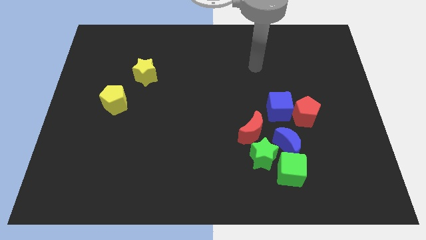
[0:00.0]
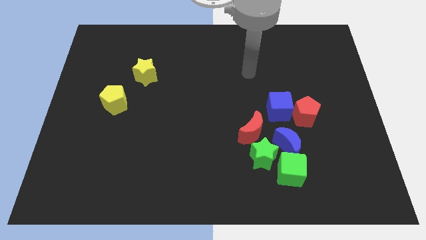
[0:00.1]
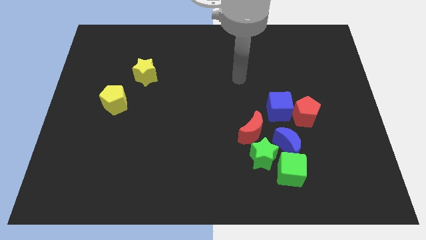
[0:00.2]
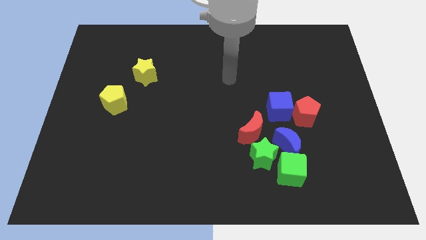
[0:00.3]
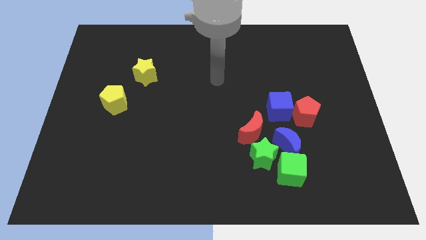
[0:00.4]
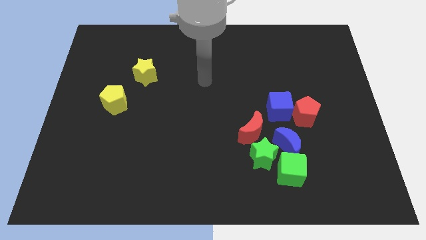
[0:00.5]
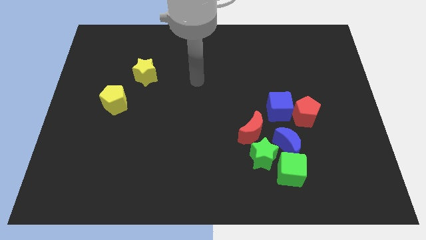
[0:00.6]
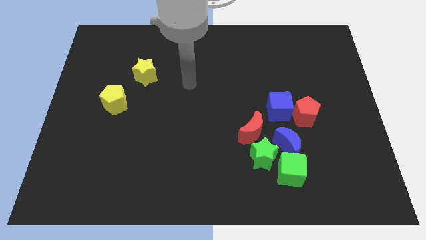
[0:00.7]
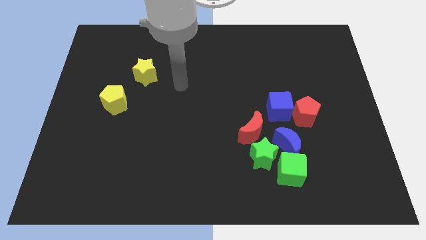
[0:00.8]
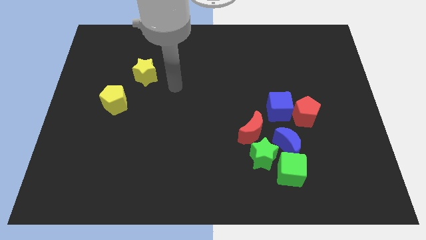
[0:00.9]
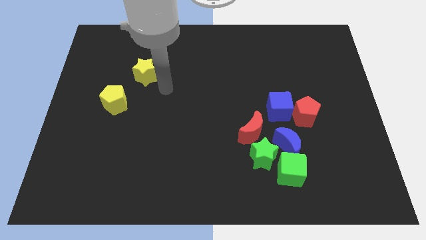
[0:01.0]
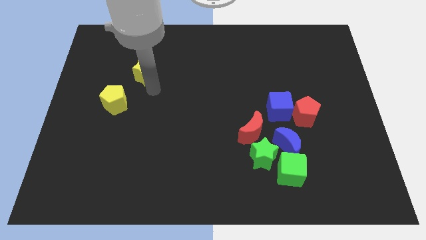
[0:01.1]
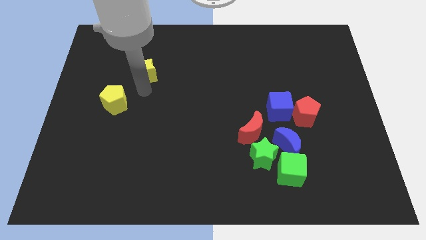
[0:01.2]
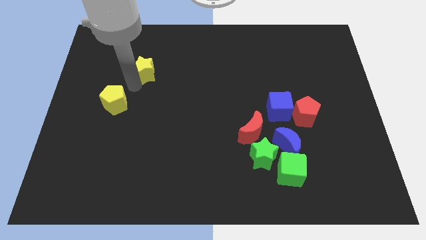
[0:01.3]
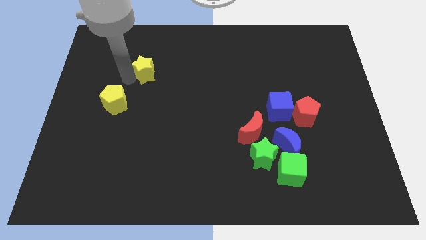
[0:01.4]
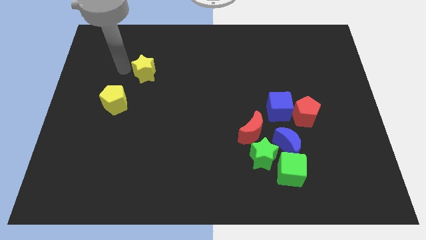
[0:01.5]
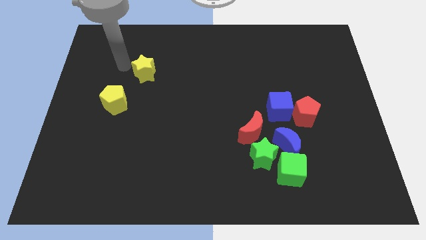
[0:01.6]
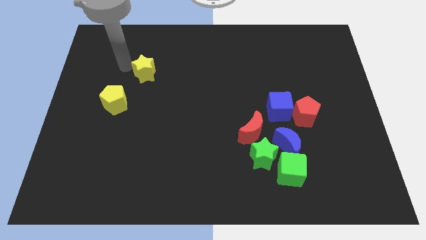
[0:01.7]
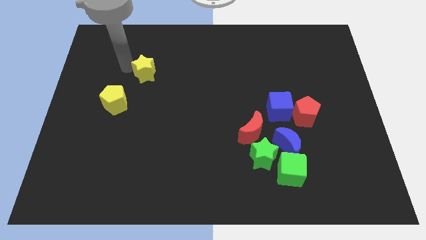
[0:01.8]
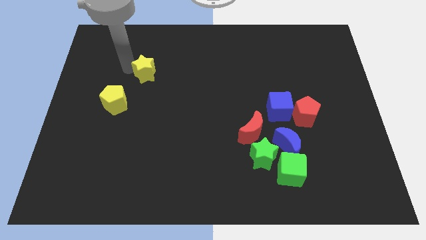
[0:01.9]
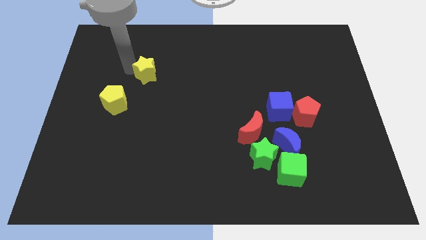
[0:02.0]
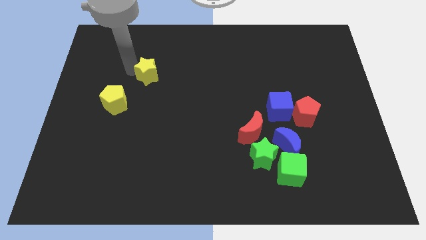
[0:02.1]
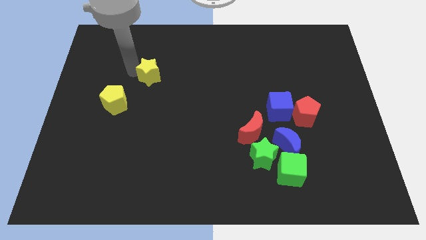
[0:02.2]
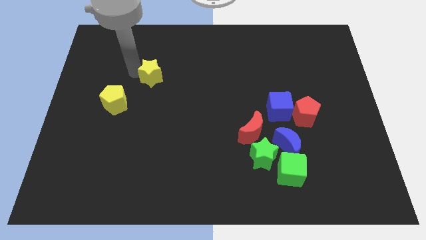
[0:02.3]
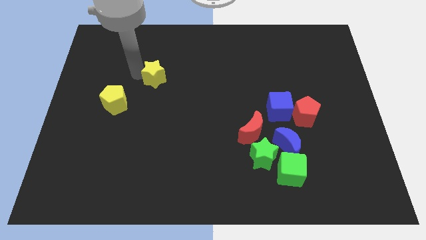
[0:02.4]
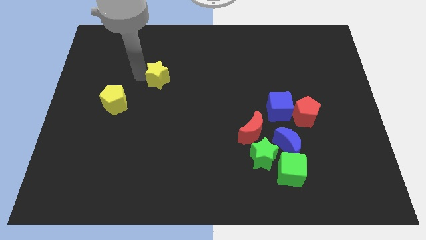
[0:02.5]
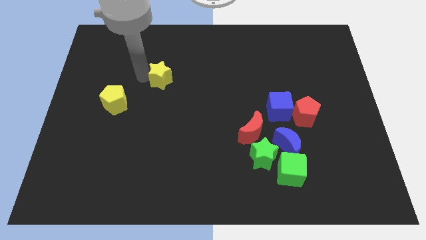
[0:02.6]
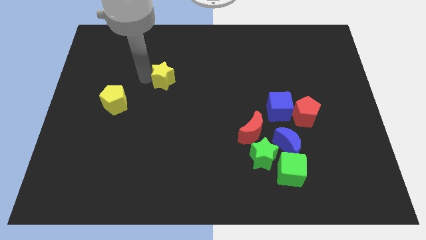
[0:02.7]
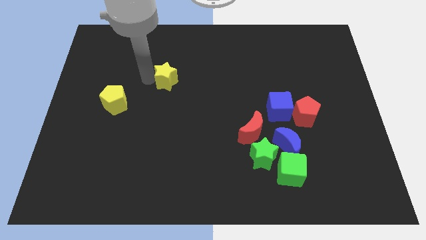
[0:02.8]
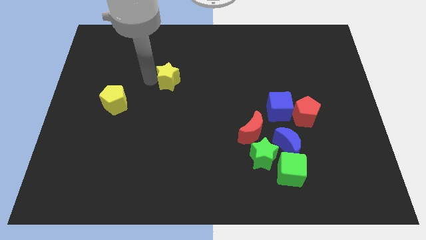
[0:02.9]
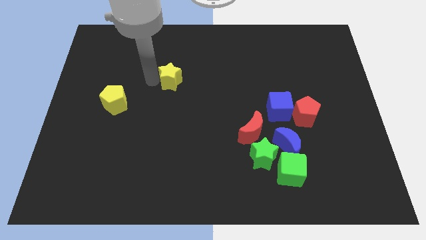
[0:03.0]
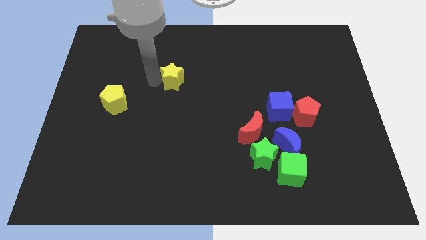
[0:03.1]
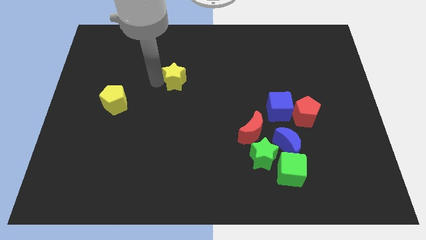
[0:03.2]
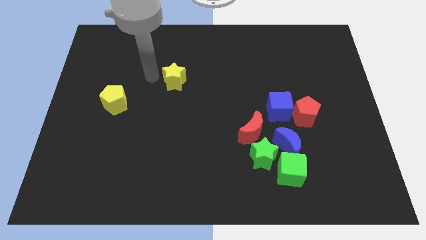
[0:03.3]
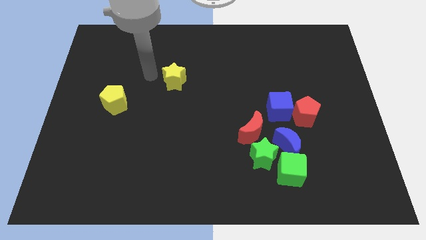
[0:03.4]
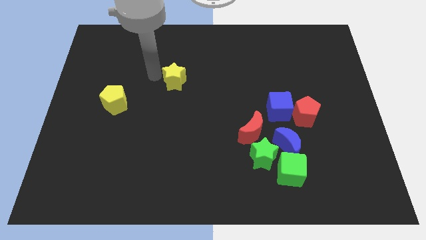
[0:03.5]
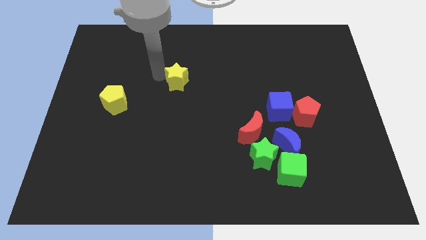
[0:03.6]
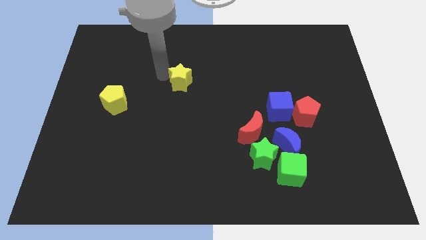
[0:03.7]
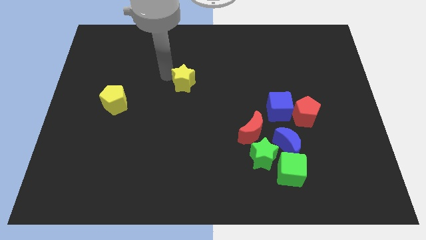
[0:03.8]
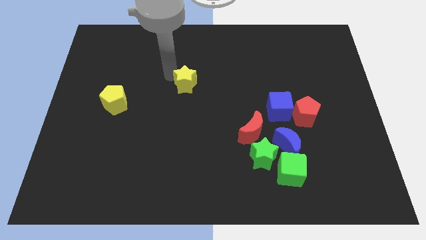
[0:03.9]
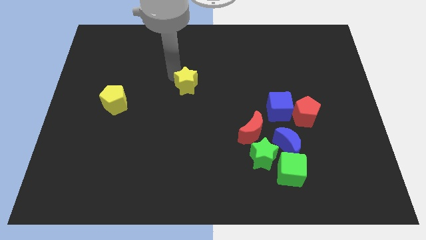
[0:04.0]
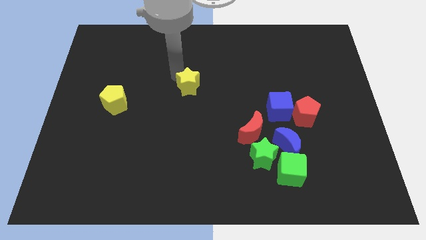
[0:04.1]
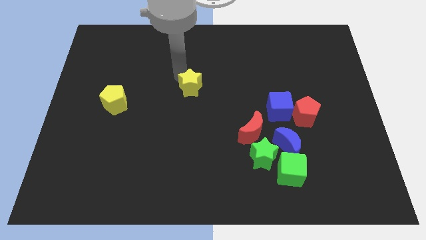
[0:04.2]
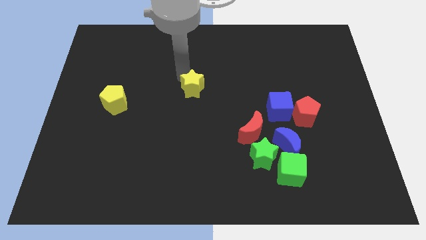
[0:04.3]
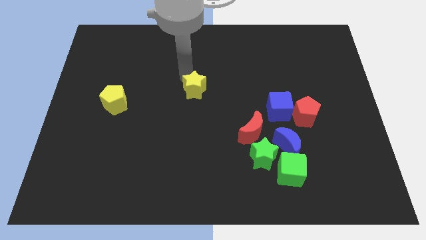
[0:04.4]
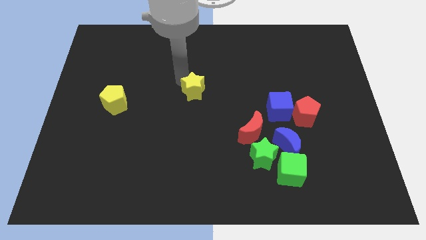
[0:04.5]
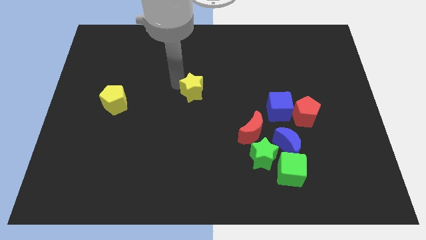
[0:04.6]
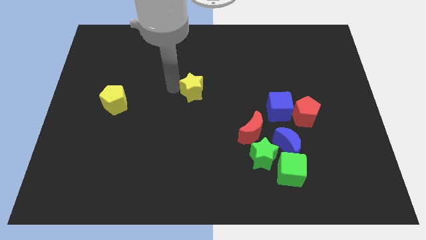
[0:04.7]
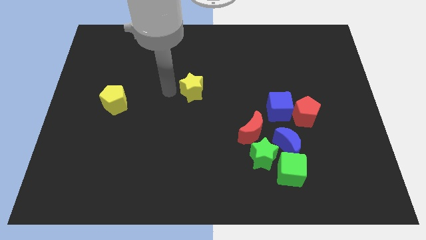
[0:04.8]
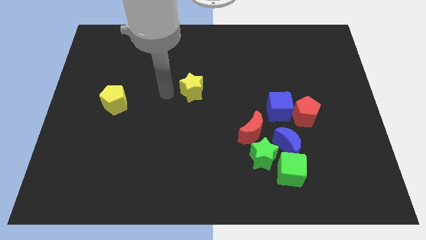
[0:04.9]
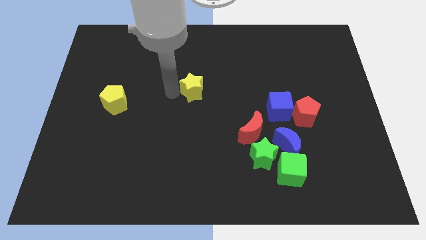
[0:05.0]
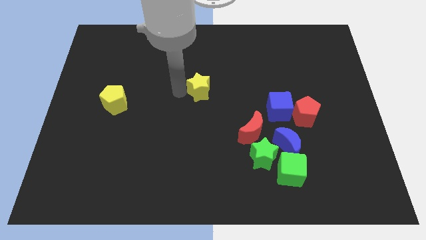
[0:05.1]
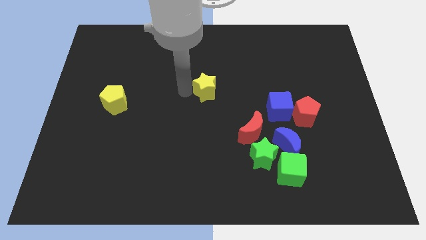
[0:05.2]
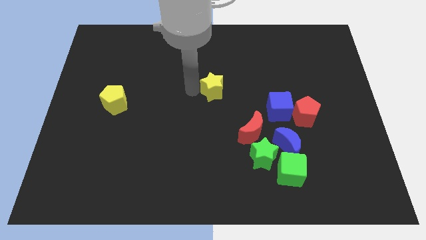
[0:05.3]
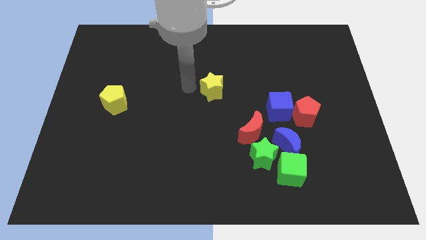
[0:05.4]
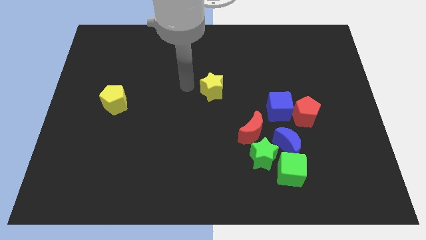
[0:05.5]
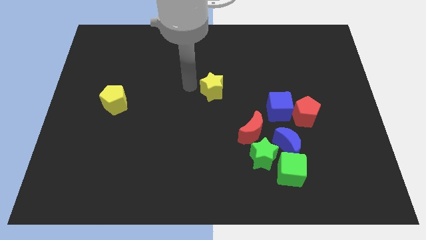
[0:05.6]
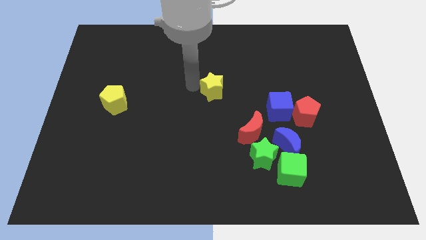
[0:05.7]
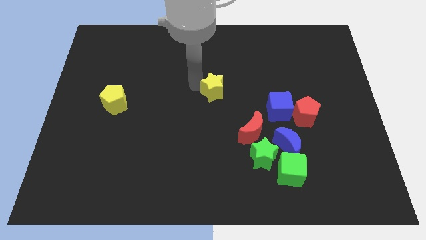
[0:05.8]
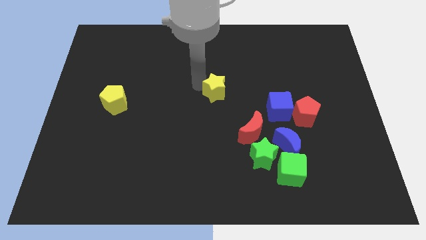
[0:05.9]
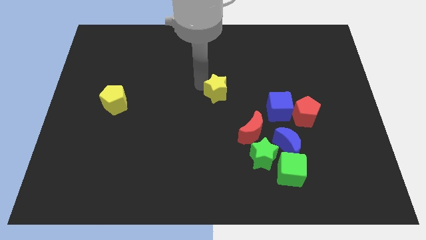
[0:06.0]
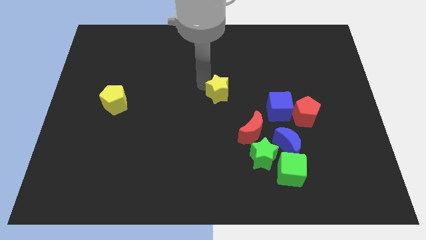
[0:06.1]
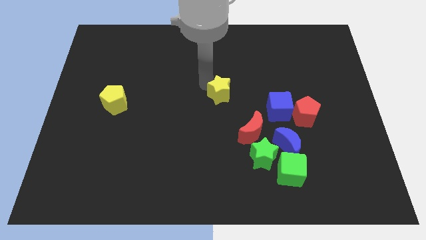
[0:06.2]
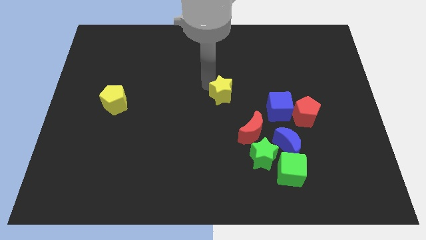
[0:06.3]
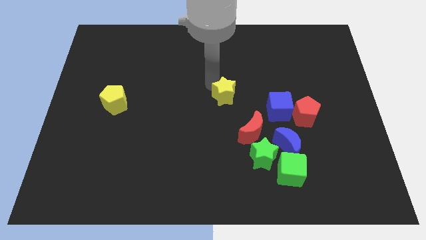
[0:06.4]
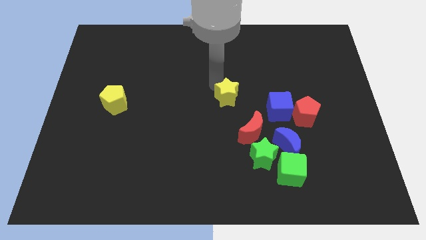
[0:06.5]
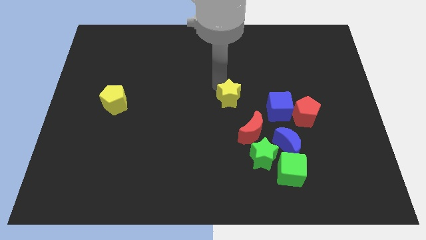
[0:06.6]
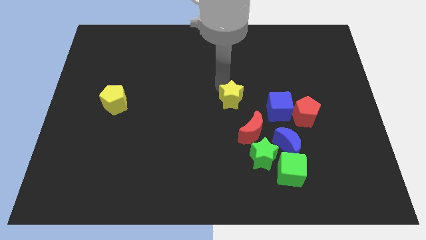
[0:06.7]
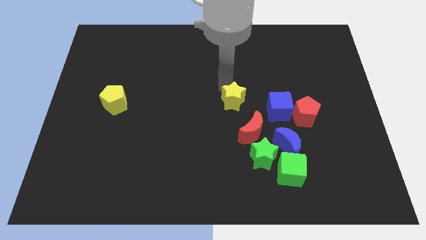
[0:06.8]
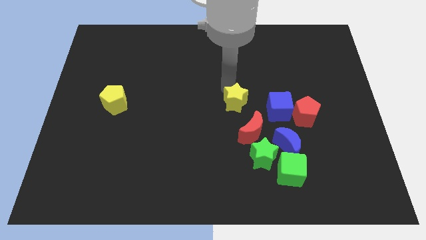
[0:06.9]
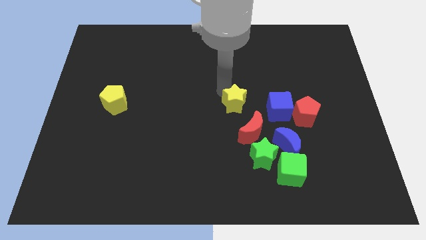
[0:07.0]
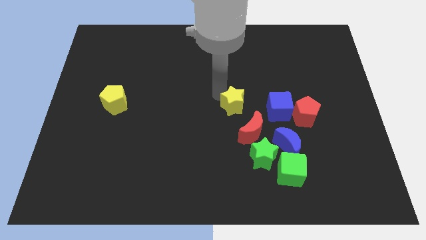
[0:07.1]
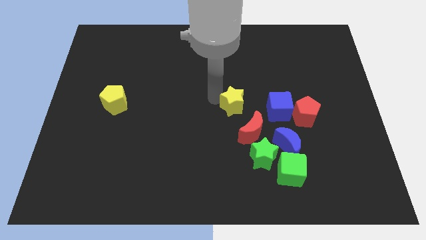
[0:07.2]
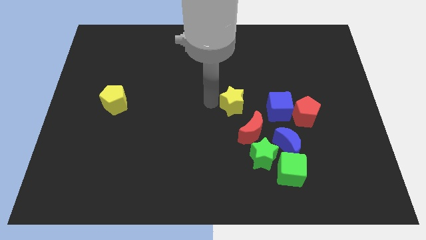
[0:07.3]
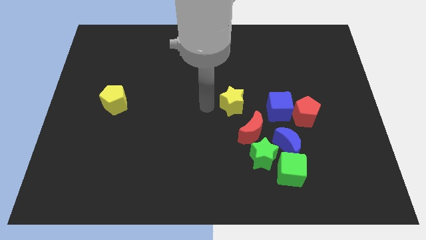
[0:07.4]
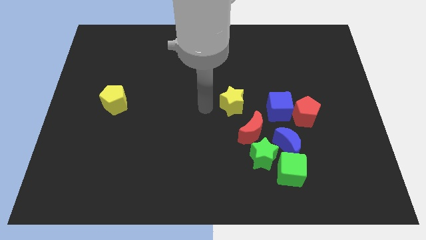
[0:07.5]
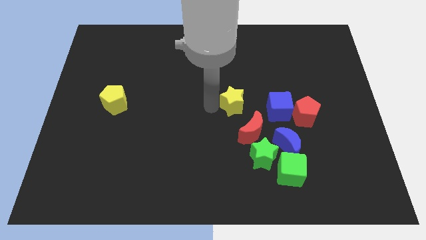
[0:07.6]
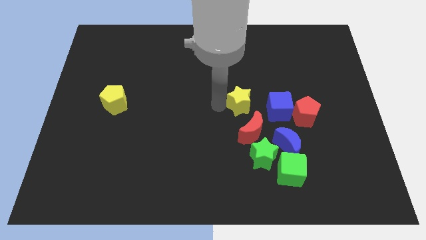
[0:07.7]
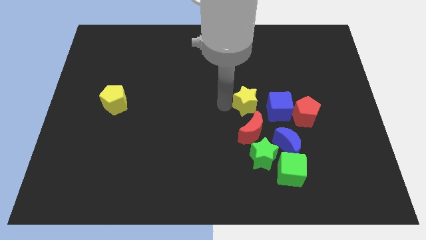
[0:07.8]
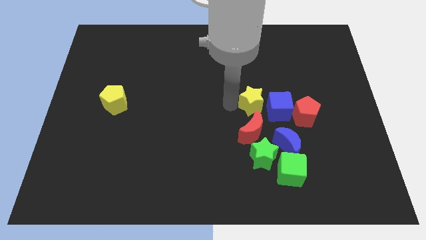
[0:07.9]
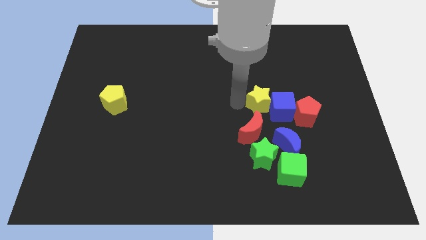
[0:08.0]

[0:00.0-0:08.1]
move the yellow star close to the blue cube

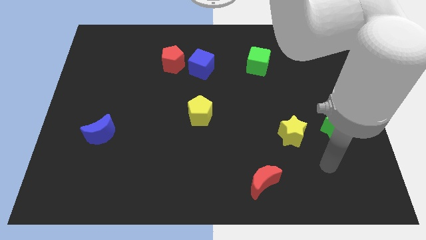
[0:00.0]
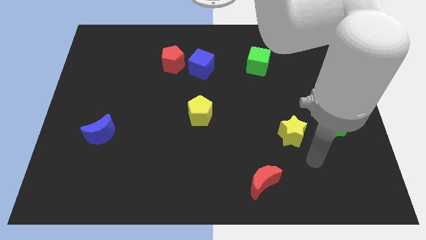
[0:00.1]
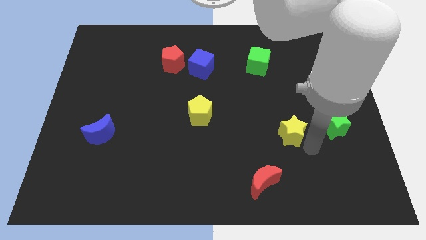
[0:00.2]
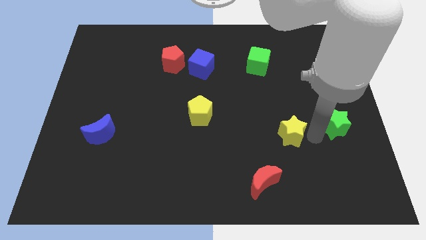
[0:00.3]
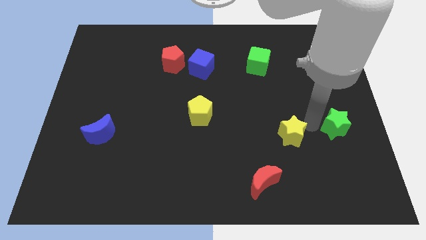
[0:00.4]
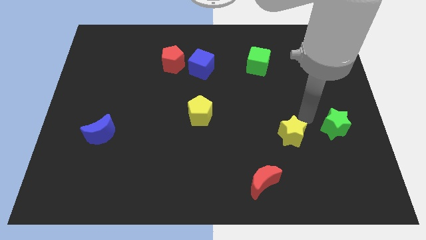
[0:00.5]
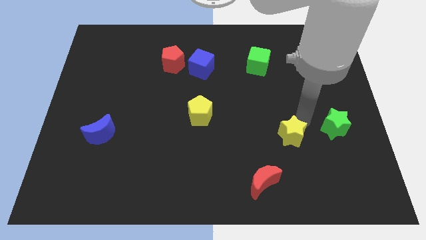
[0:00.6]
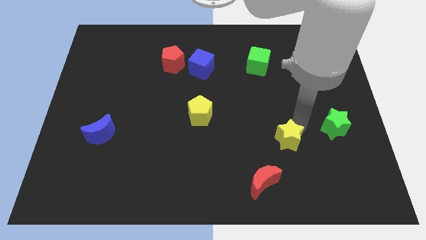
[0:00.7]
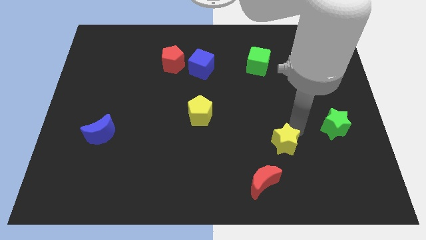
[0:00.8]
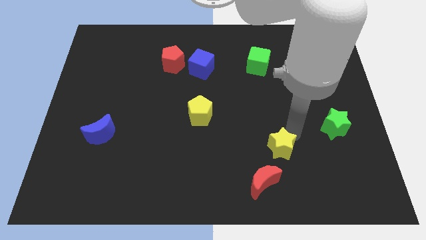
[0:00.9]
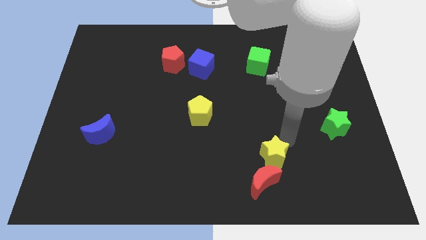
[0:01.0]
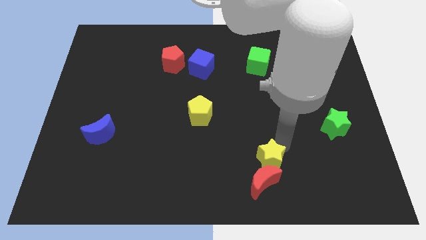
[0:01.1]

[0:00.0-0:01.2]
put the yellow star to the red moon
